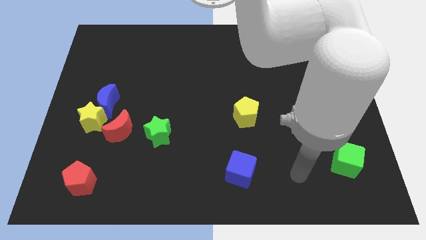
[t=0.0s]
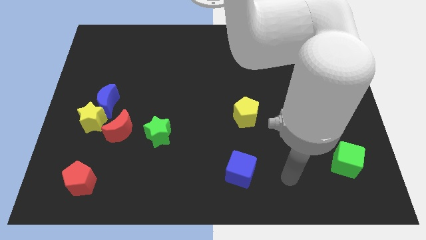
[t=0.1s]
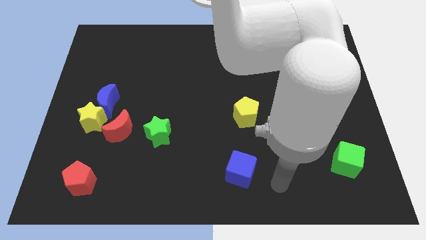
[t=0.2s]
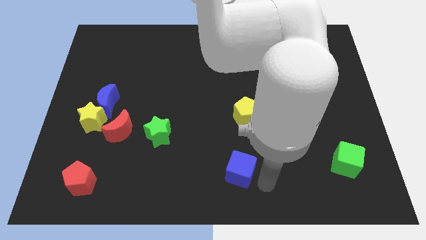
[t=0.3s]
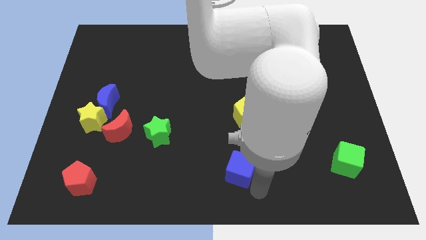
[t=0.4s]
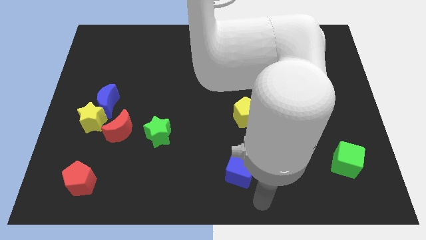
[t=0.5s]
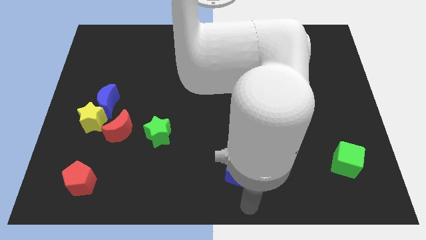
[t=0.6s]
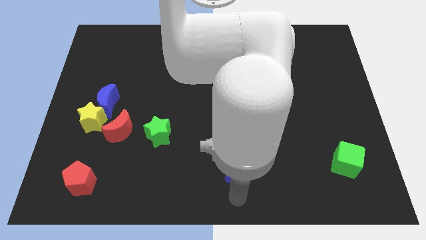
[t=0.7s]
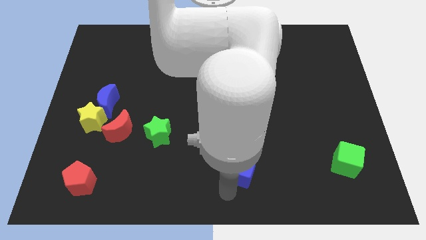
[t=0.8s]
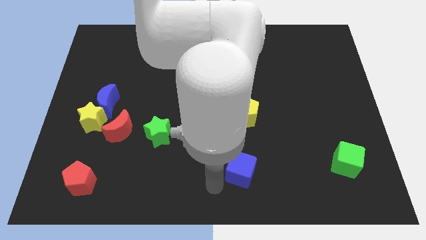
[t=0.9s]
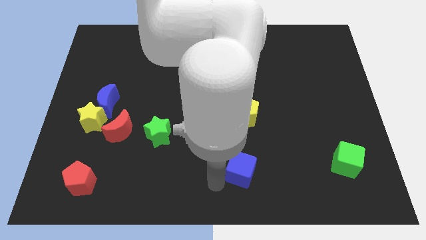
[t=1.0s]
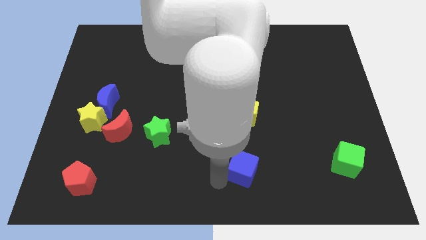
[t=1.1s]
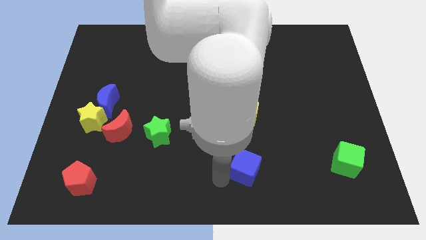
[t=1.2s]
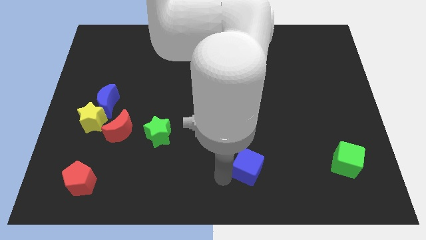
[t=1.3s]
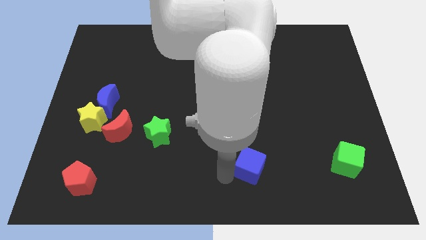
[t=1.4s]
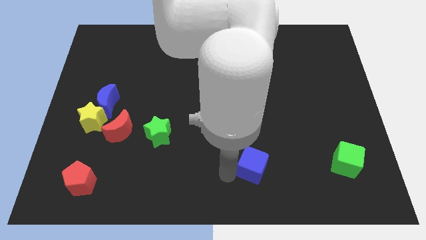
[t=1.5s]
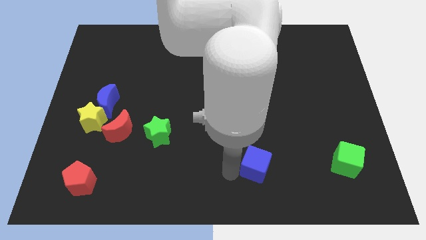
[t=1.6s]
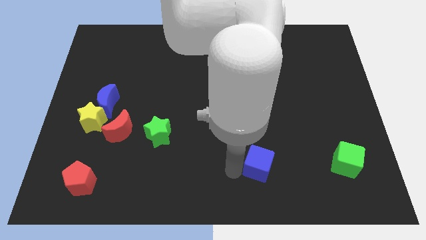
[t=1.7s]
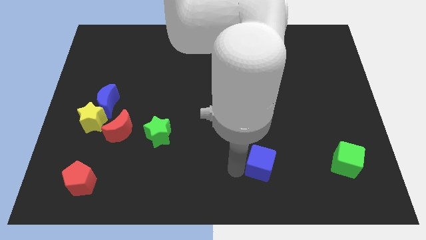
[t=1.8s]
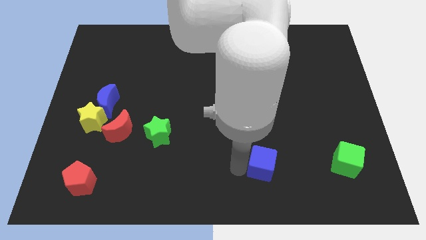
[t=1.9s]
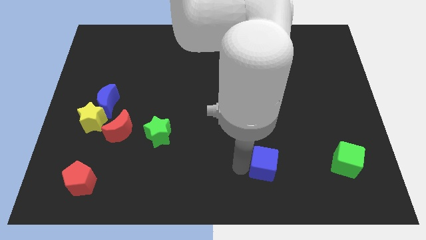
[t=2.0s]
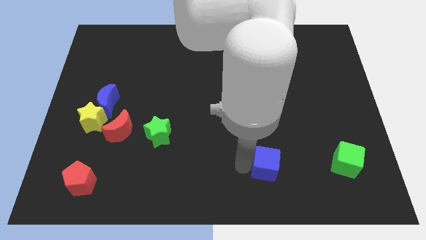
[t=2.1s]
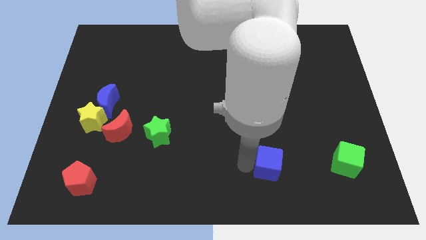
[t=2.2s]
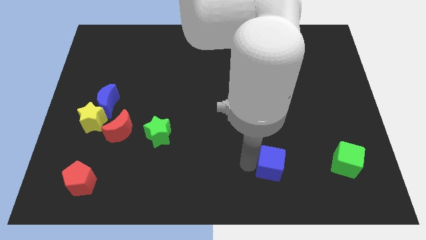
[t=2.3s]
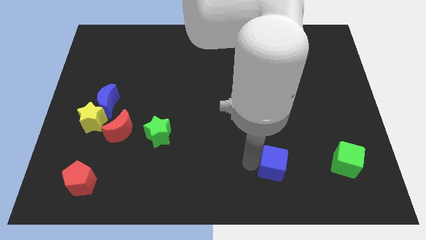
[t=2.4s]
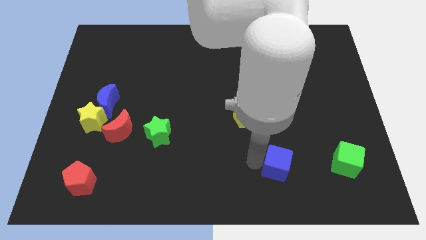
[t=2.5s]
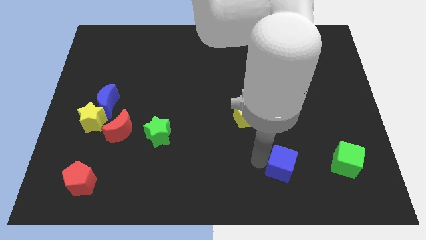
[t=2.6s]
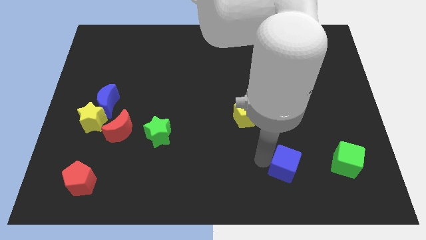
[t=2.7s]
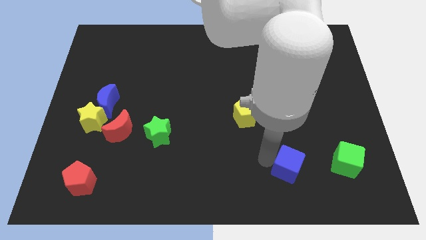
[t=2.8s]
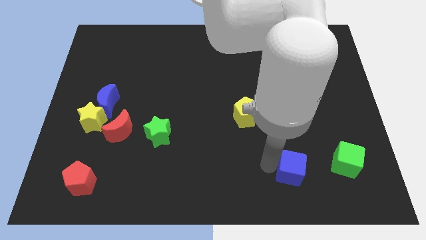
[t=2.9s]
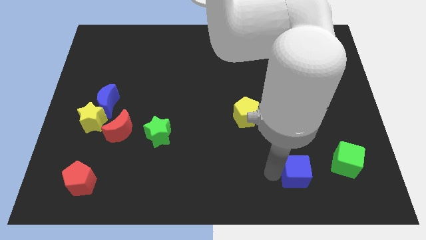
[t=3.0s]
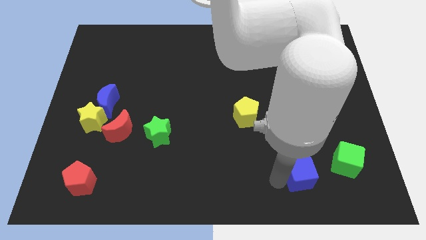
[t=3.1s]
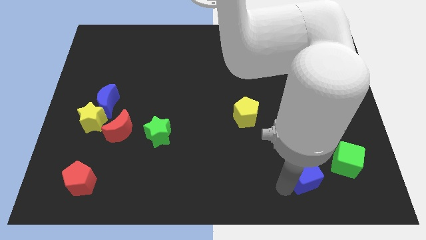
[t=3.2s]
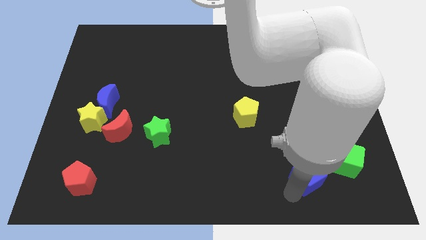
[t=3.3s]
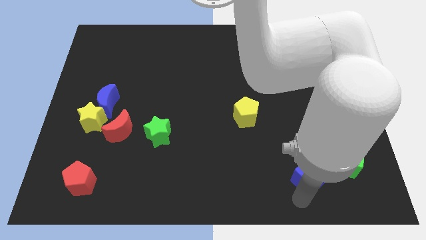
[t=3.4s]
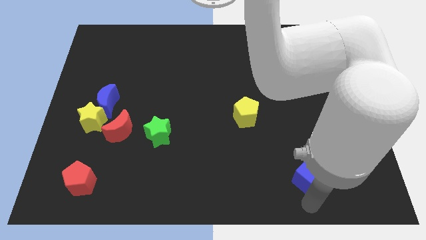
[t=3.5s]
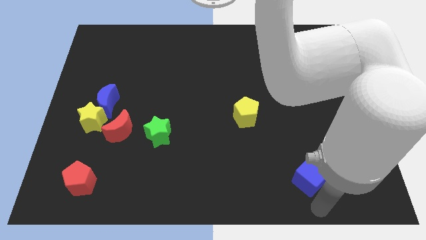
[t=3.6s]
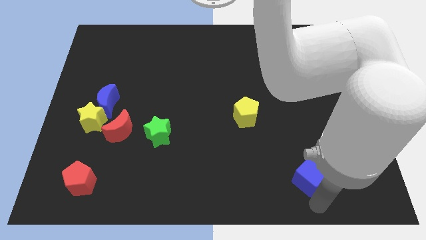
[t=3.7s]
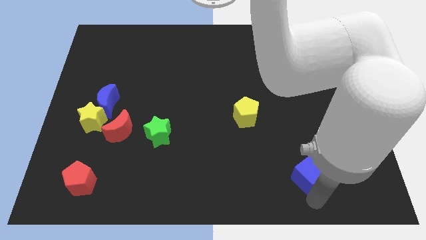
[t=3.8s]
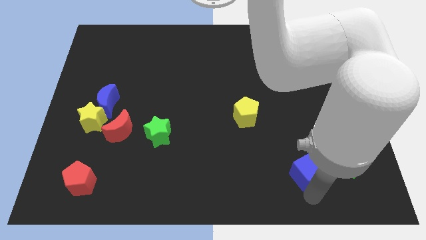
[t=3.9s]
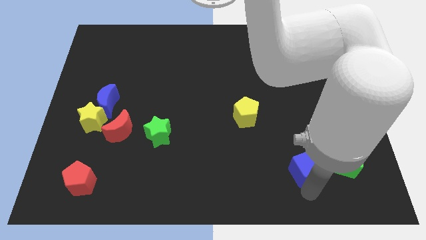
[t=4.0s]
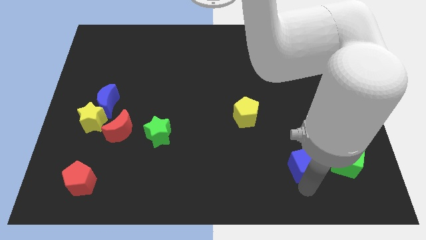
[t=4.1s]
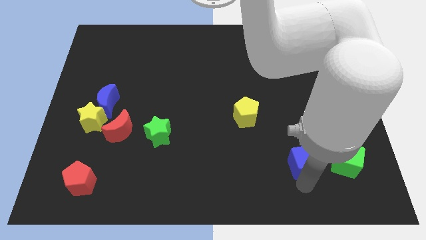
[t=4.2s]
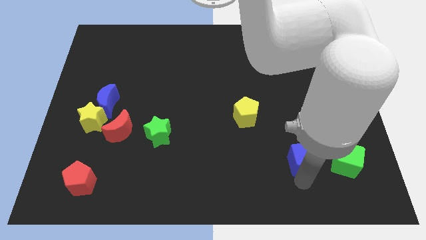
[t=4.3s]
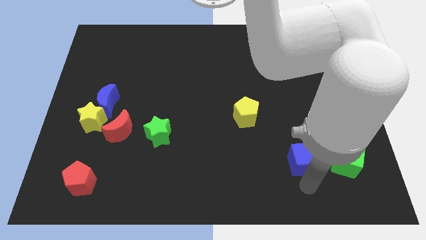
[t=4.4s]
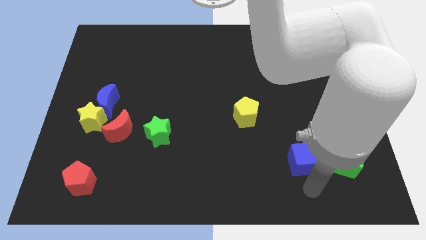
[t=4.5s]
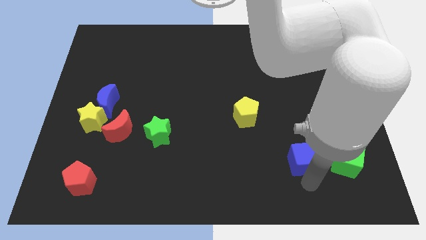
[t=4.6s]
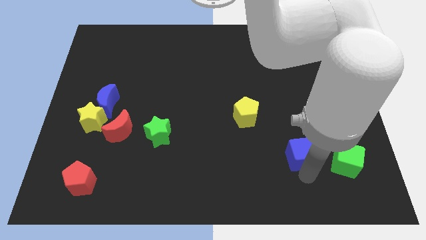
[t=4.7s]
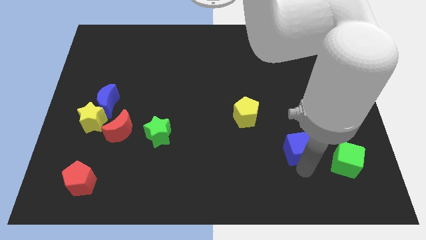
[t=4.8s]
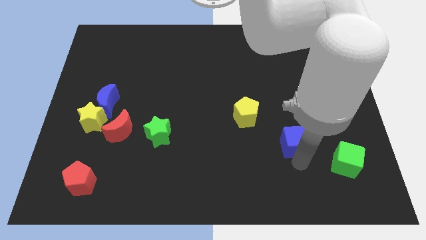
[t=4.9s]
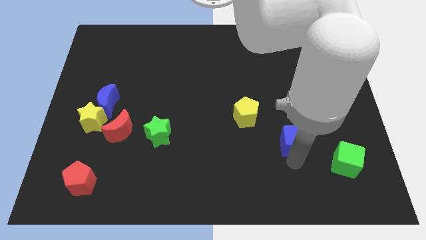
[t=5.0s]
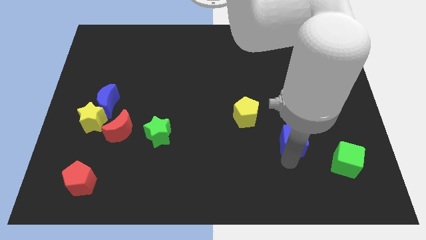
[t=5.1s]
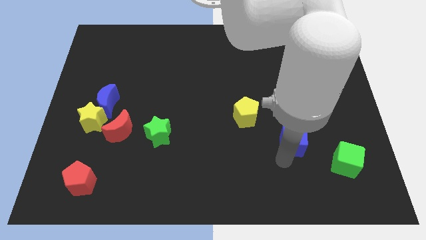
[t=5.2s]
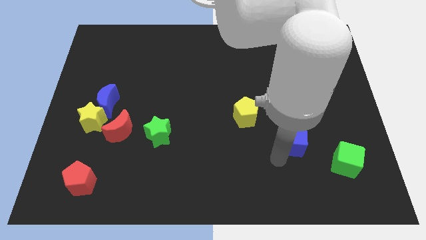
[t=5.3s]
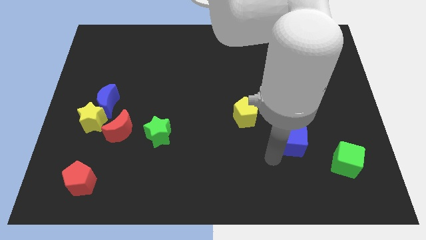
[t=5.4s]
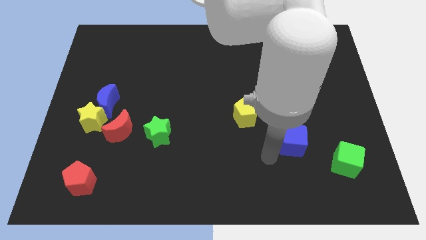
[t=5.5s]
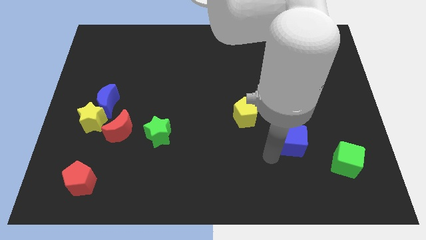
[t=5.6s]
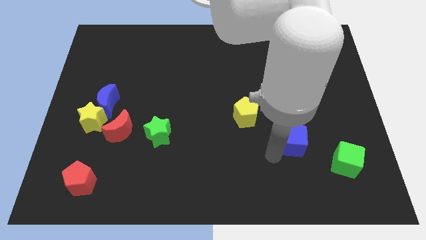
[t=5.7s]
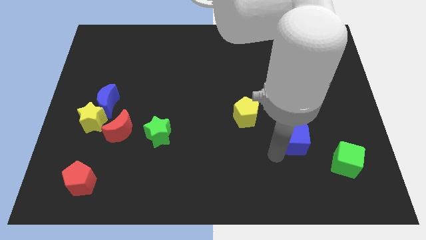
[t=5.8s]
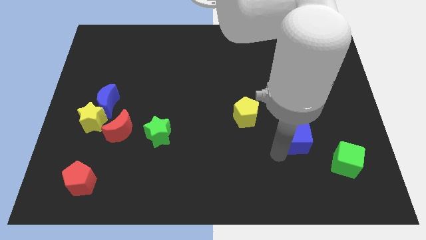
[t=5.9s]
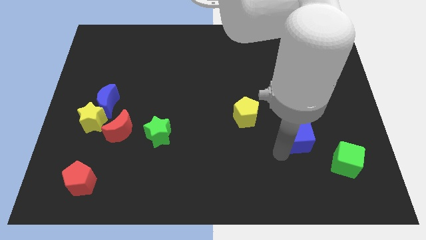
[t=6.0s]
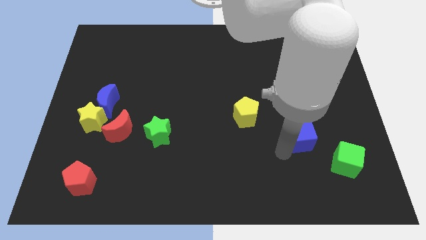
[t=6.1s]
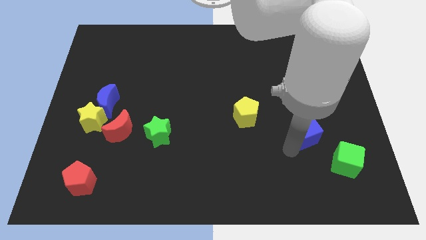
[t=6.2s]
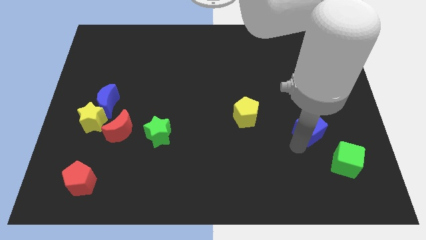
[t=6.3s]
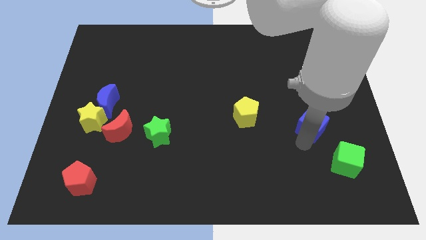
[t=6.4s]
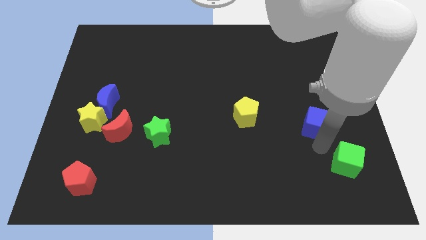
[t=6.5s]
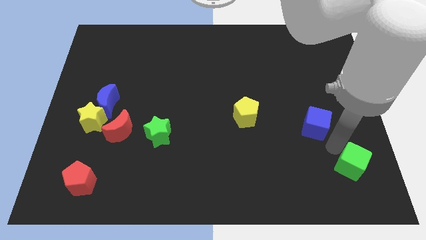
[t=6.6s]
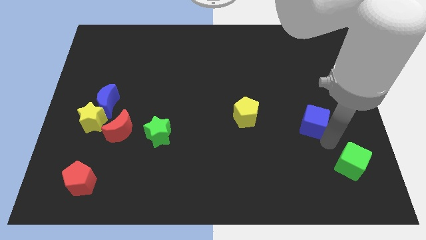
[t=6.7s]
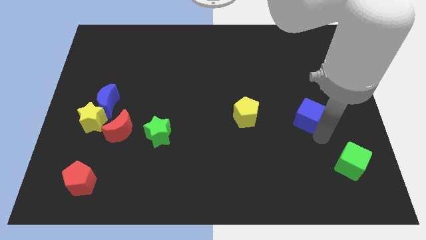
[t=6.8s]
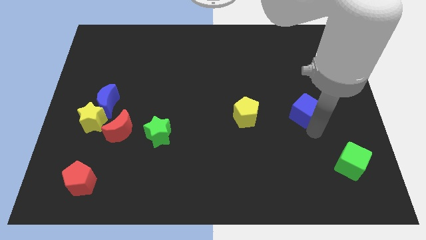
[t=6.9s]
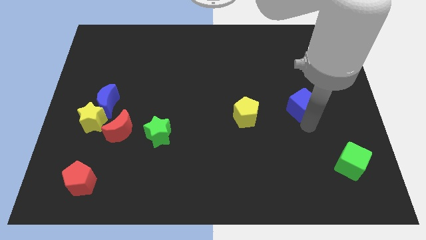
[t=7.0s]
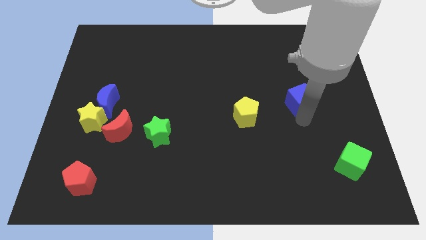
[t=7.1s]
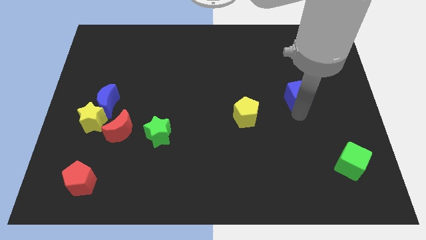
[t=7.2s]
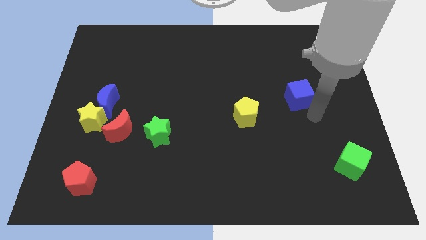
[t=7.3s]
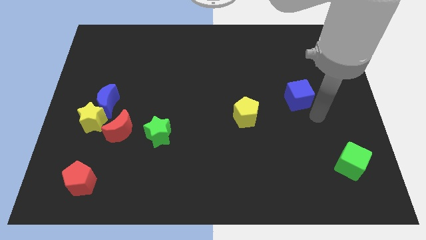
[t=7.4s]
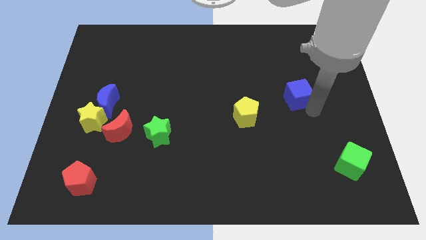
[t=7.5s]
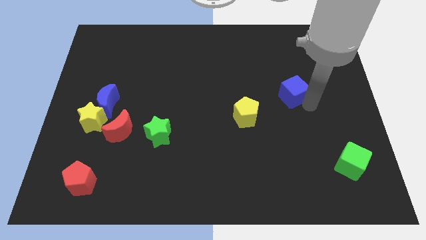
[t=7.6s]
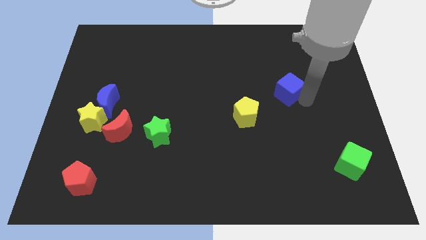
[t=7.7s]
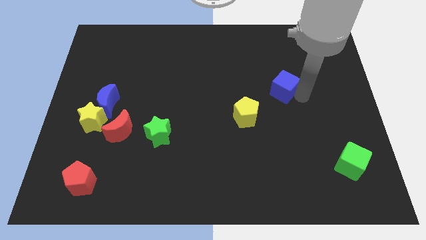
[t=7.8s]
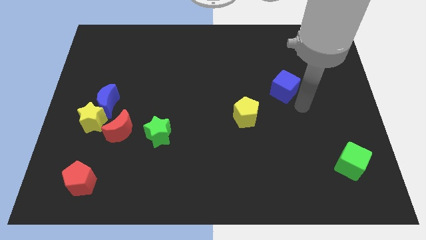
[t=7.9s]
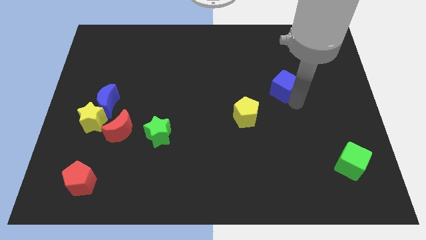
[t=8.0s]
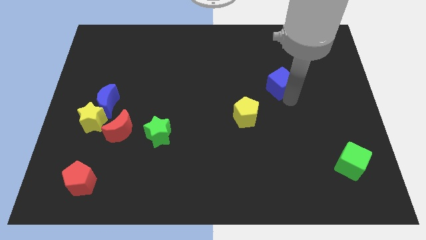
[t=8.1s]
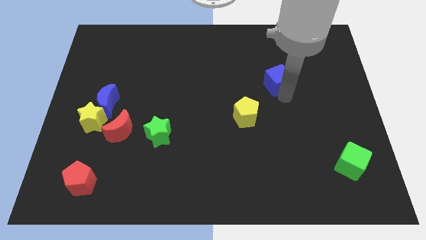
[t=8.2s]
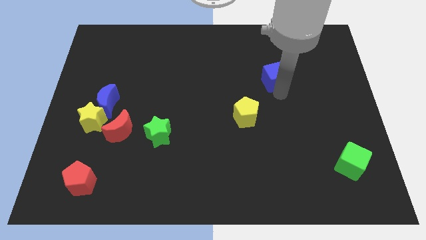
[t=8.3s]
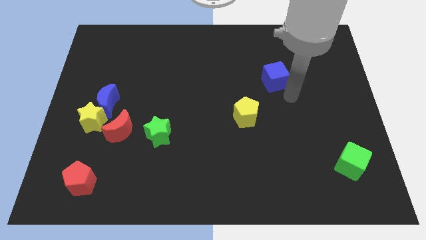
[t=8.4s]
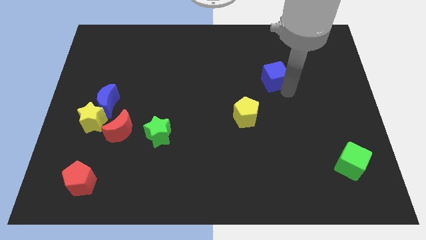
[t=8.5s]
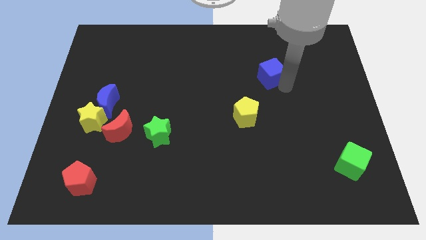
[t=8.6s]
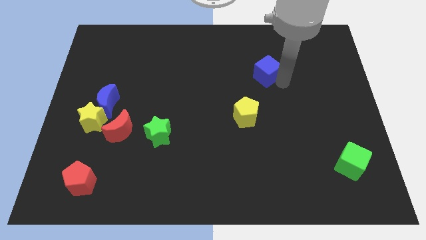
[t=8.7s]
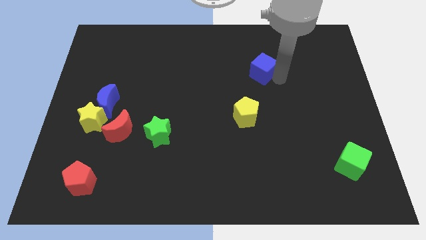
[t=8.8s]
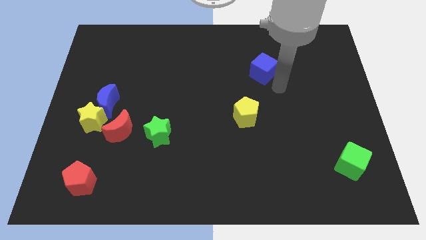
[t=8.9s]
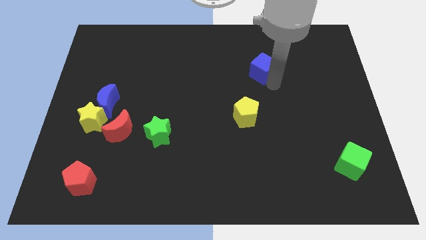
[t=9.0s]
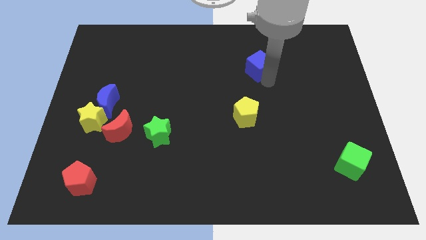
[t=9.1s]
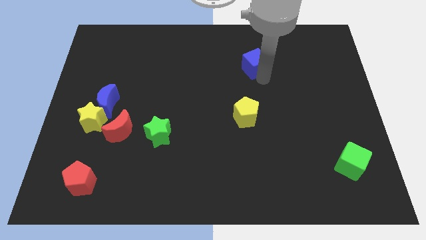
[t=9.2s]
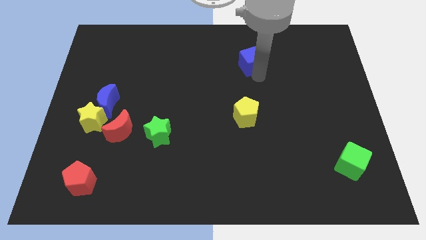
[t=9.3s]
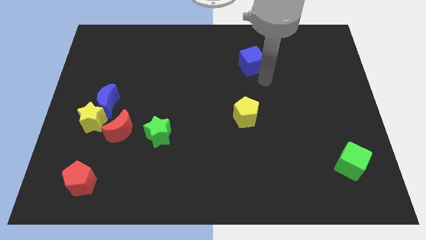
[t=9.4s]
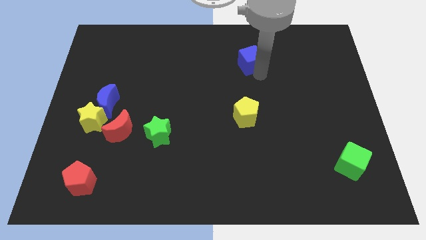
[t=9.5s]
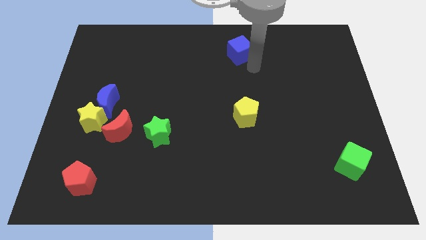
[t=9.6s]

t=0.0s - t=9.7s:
move the blue cube to the top
